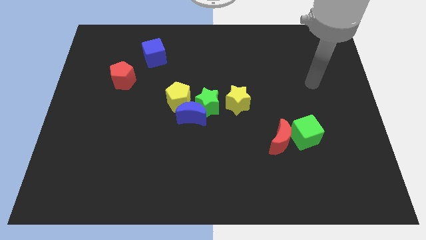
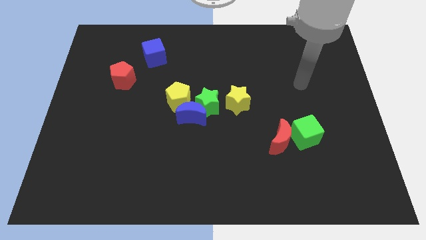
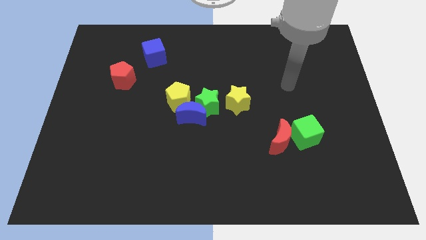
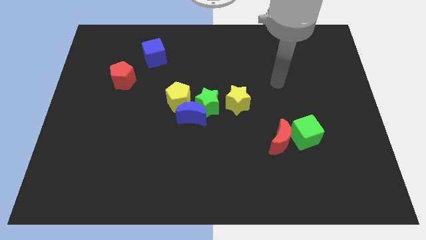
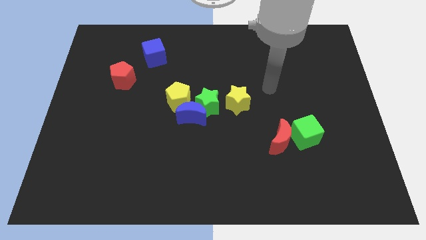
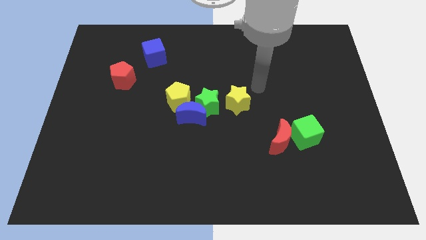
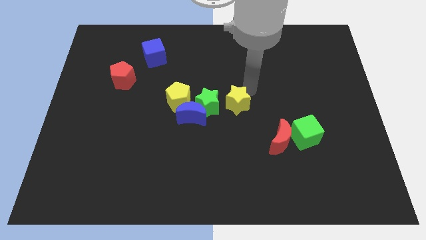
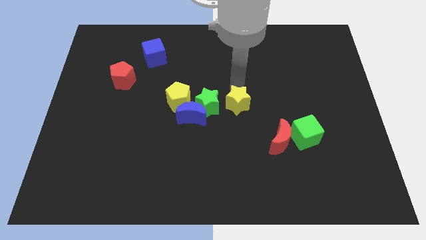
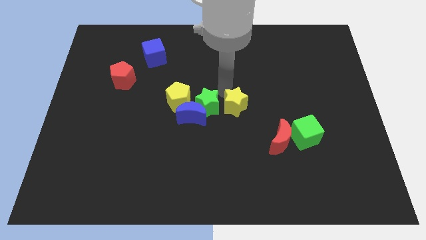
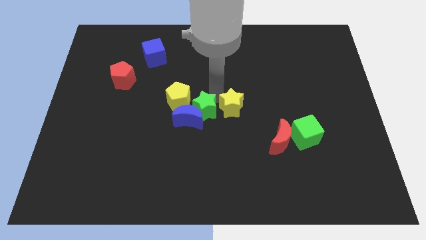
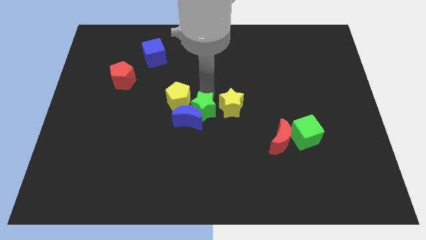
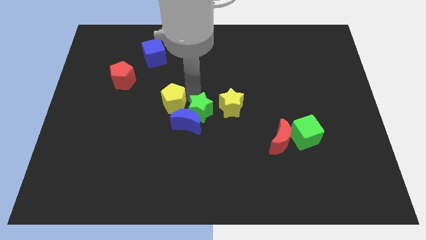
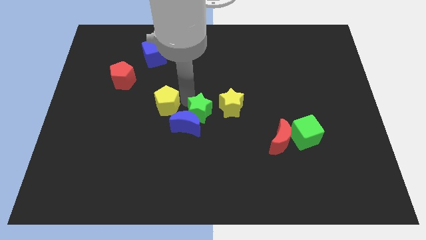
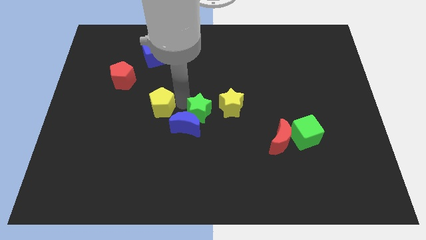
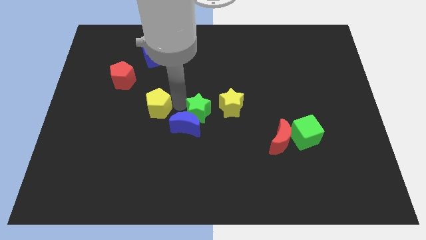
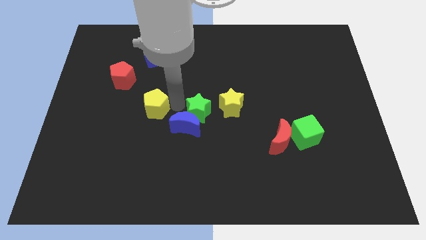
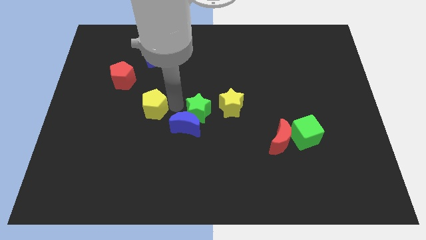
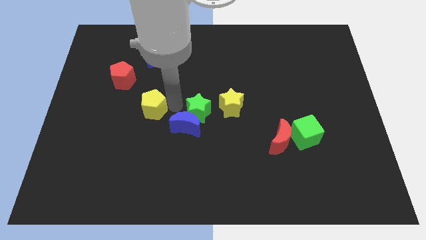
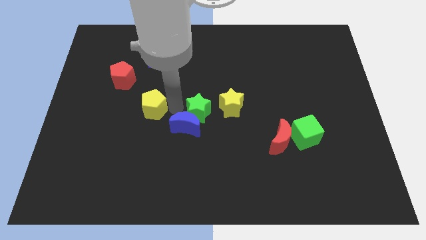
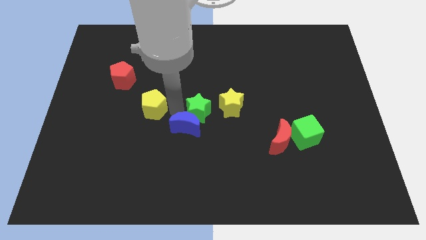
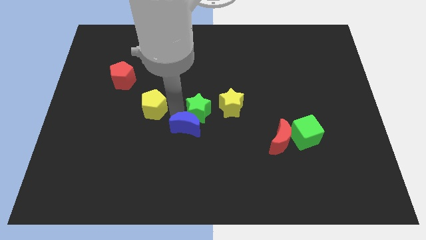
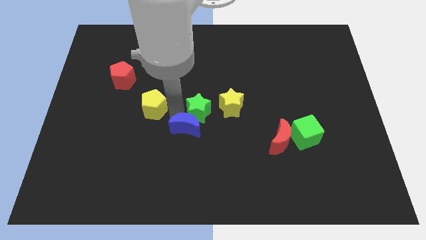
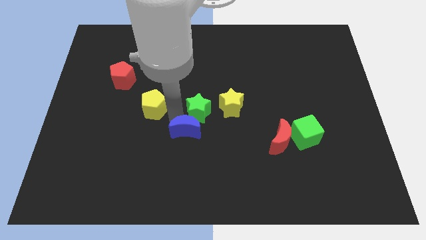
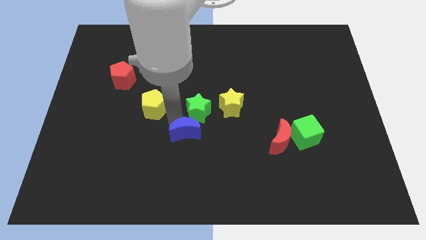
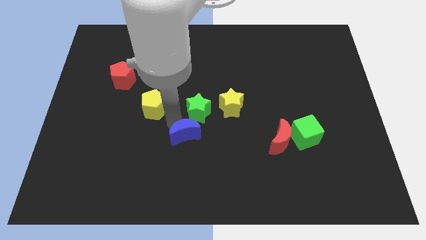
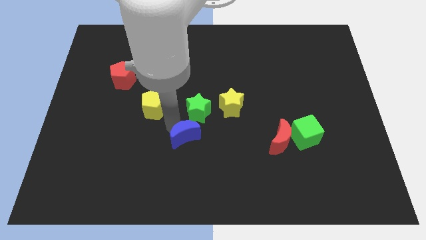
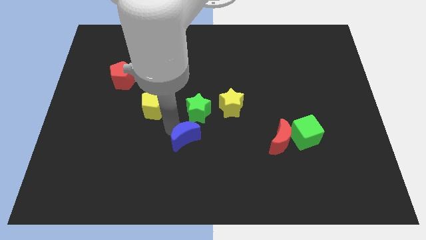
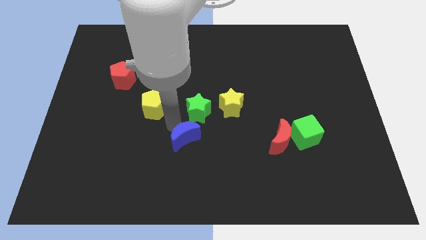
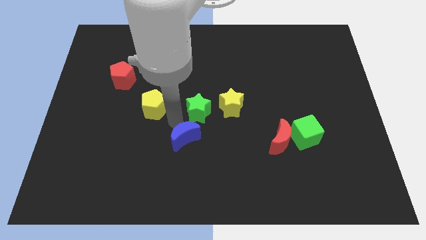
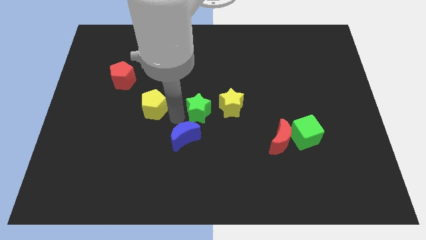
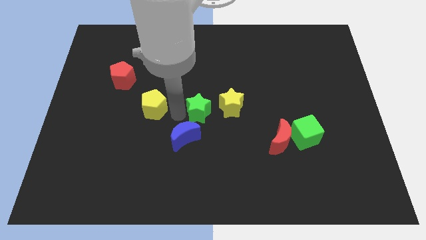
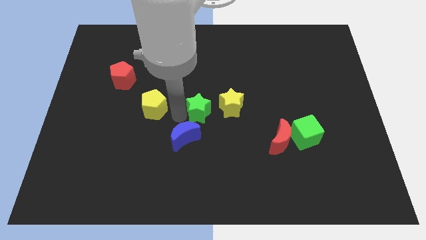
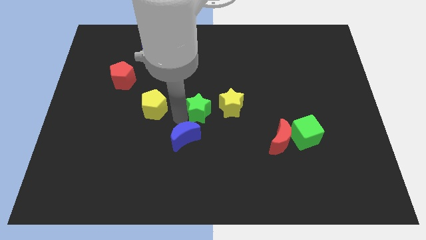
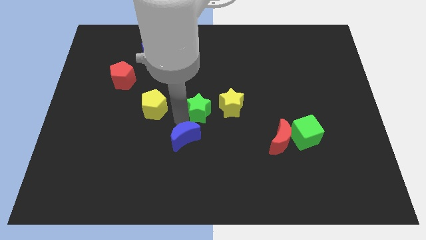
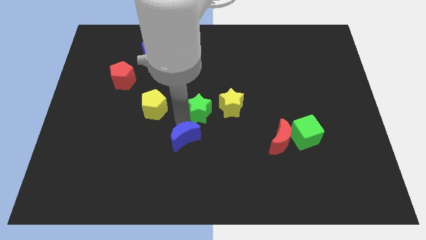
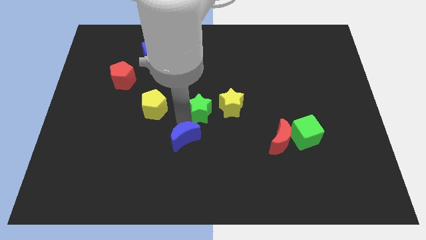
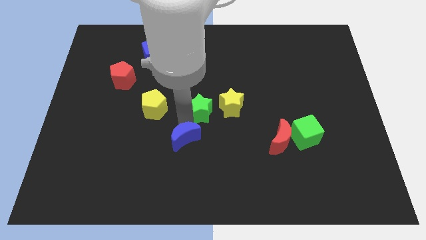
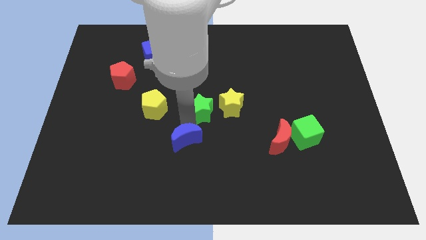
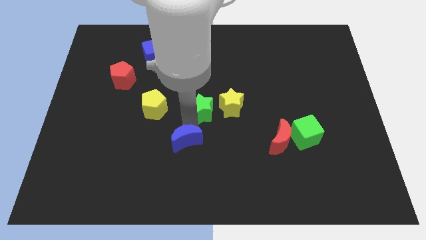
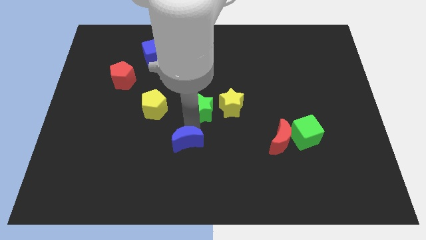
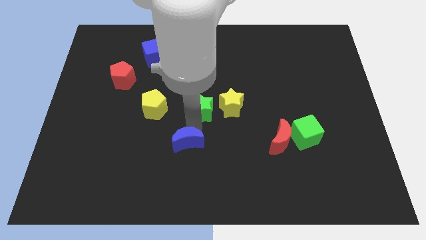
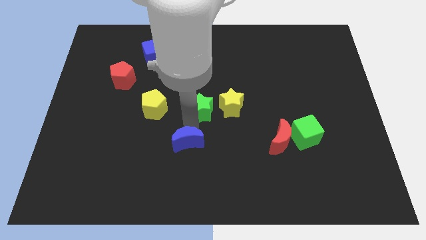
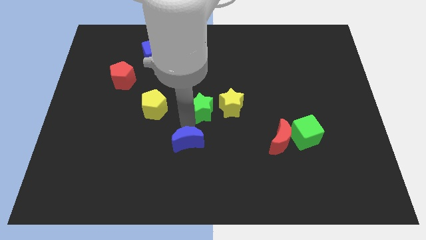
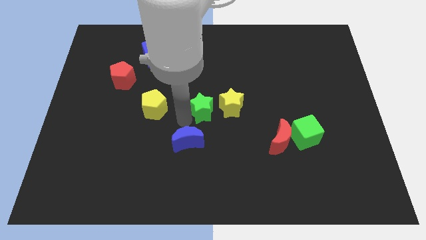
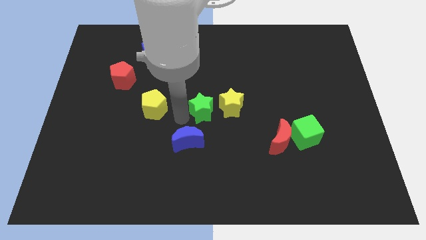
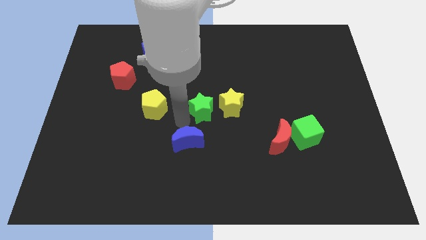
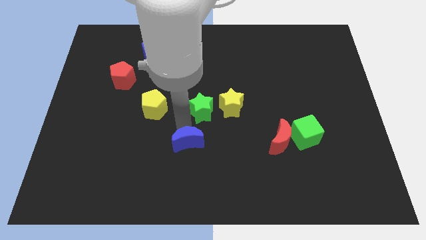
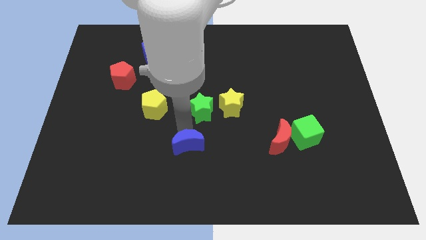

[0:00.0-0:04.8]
pull the blue moon apart from the green star and yellow pentagon

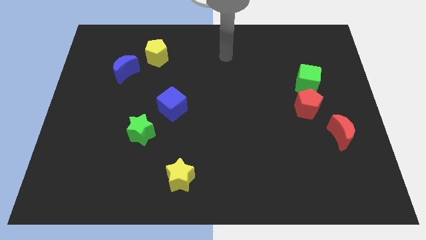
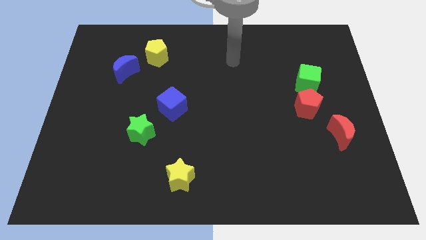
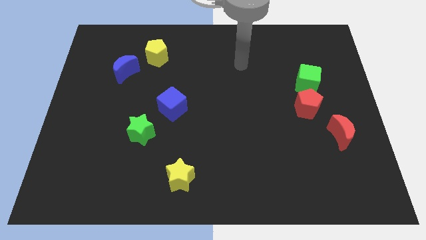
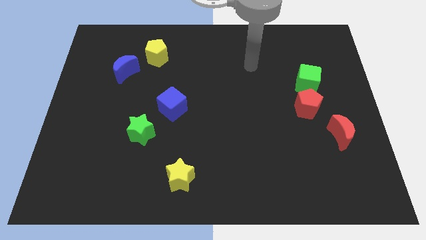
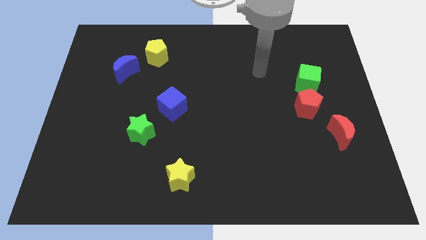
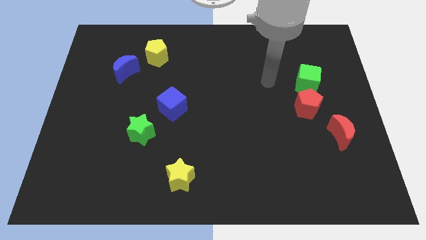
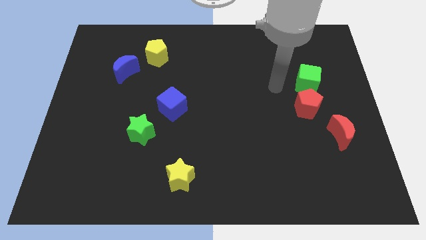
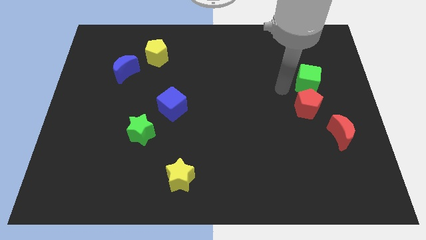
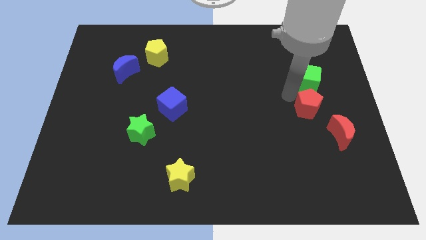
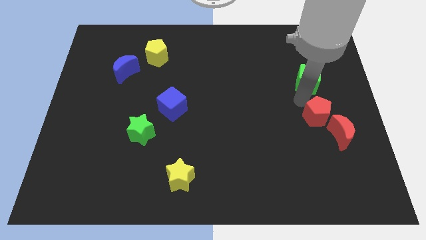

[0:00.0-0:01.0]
separate the green cube from the red pentagon

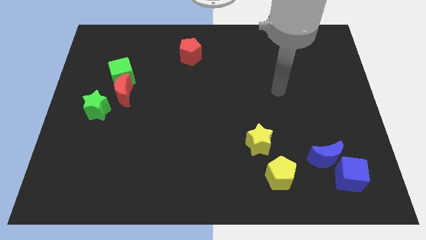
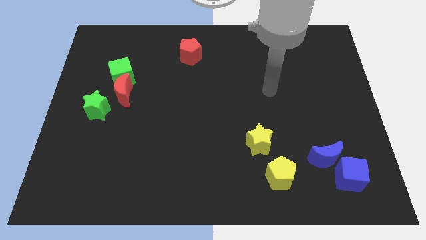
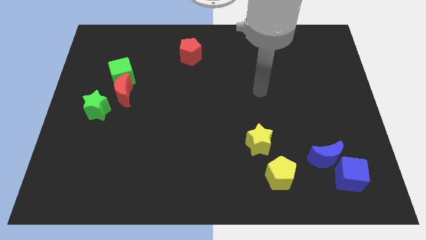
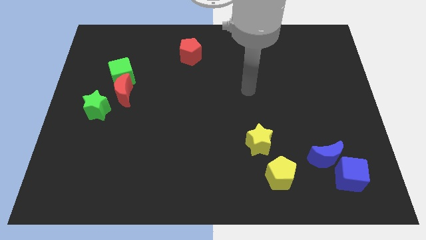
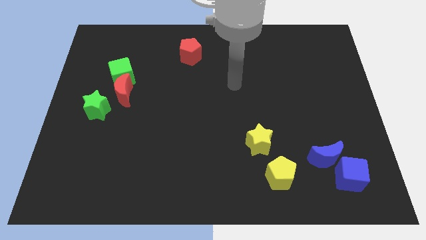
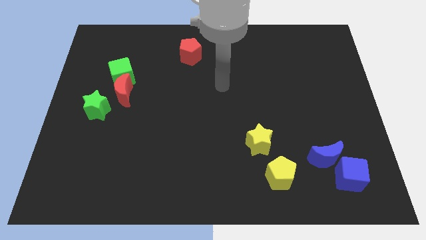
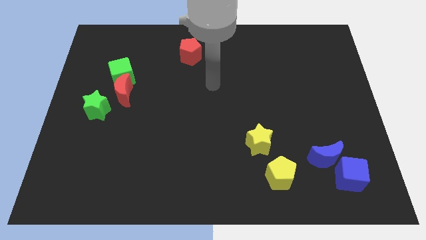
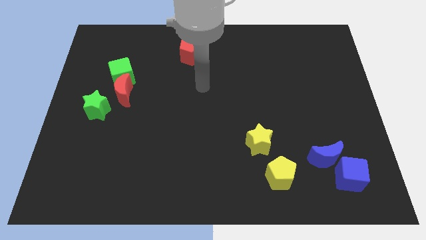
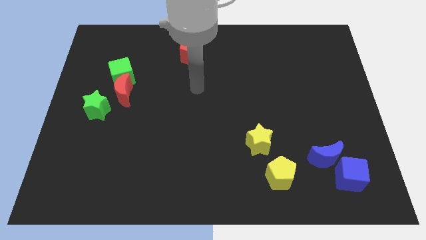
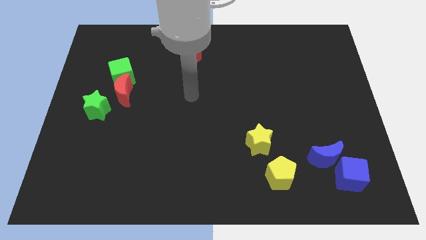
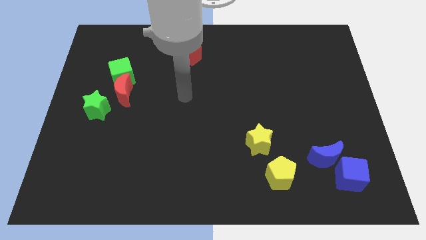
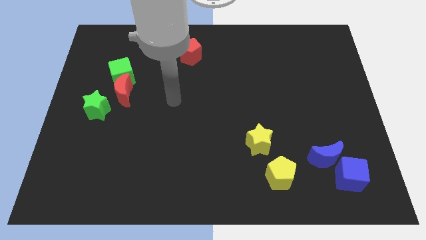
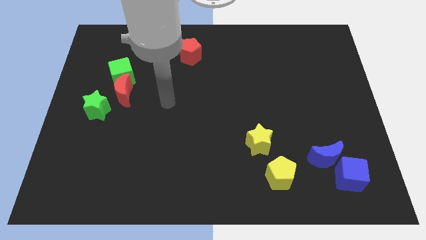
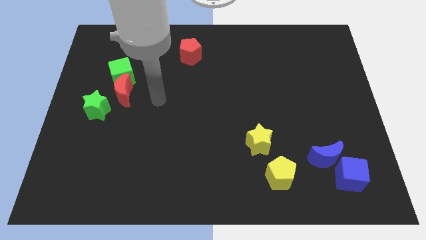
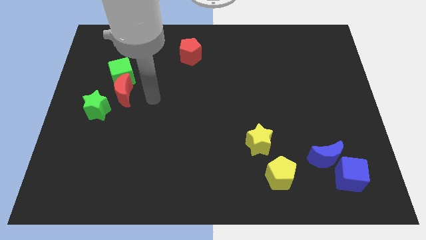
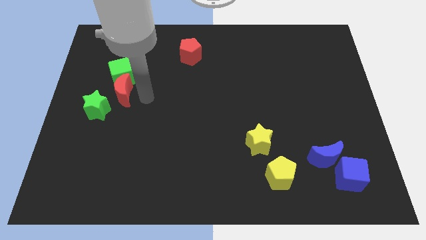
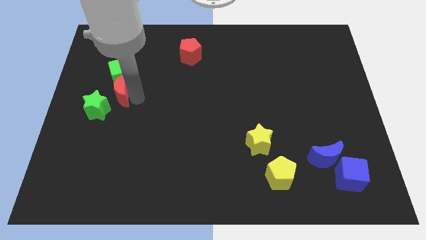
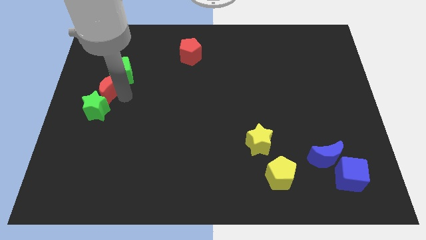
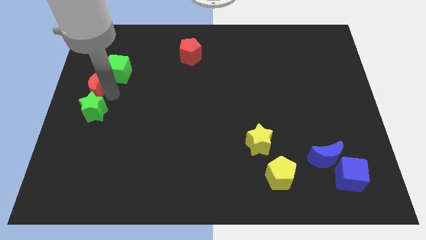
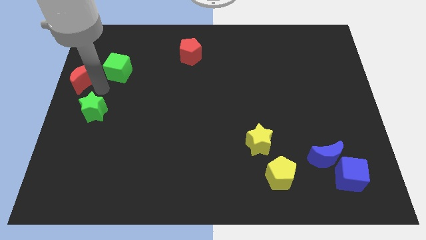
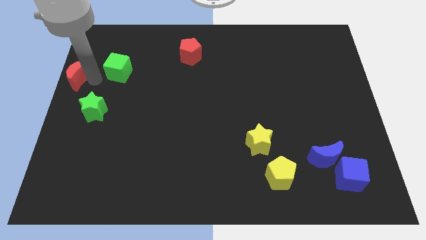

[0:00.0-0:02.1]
separate the green cube from the red moon

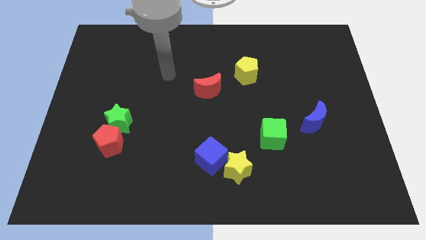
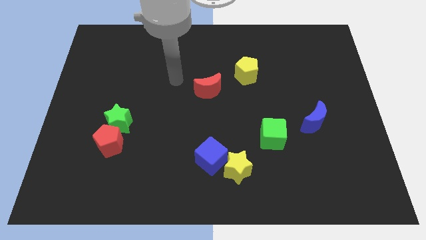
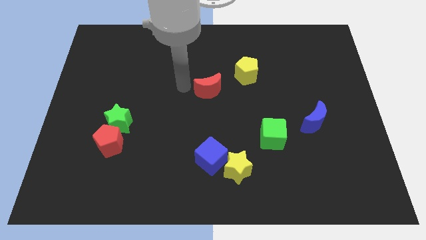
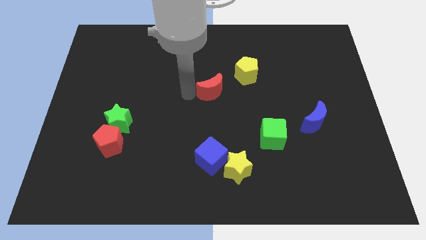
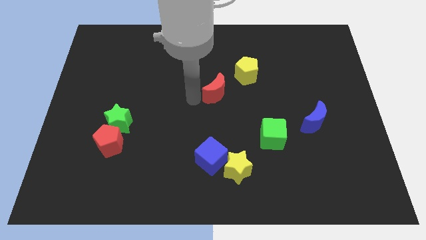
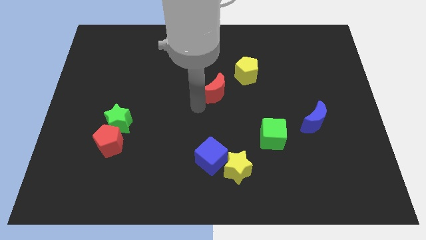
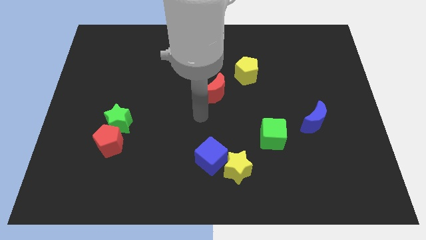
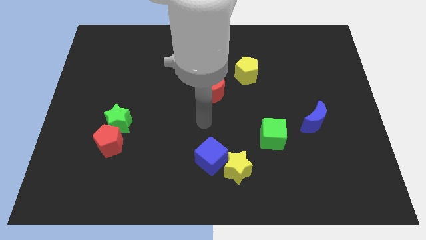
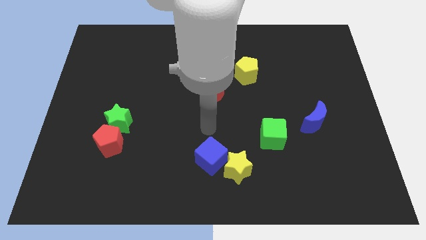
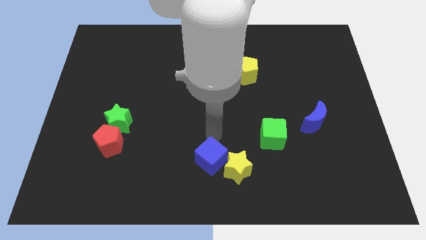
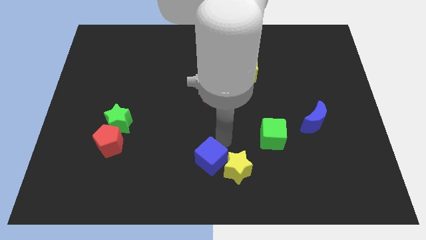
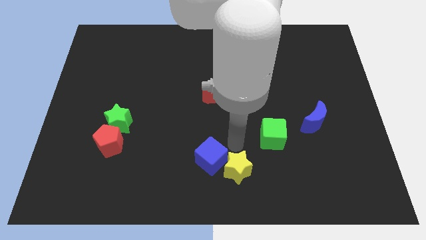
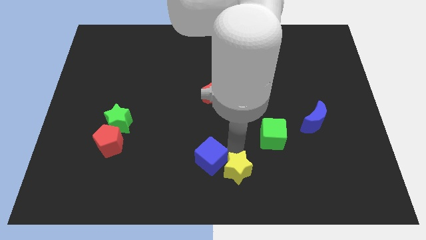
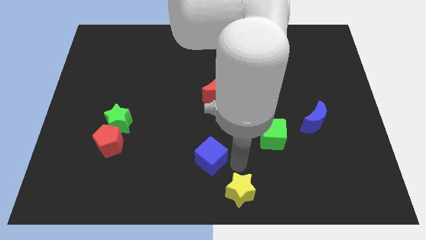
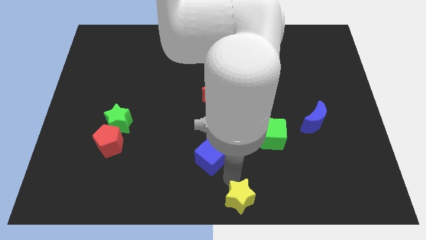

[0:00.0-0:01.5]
separate the blue cube from the yellow star
